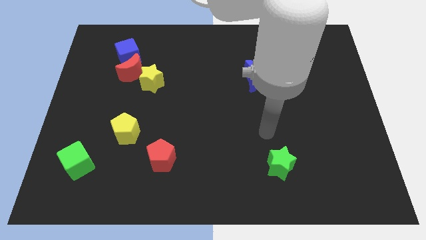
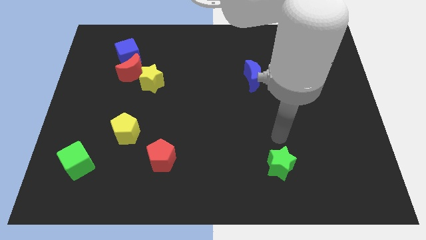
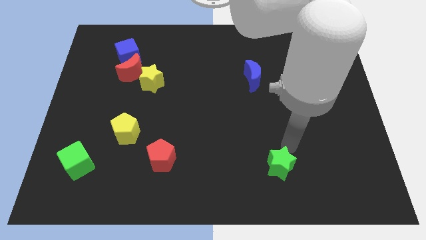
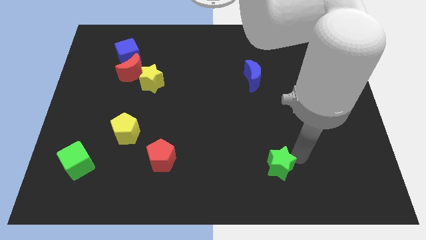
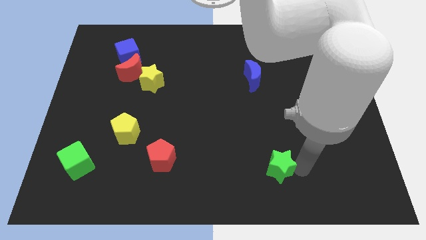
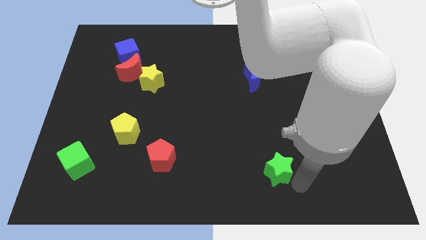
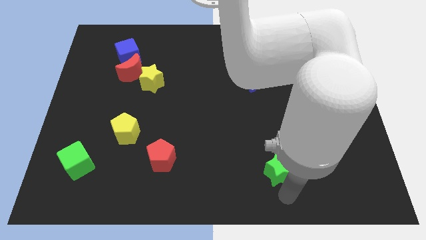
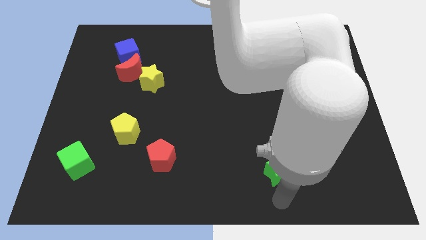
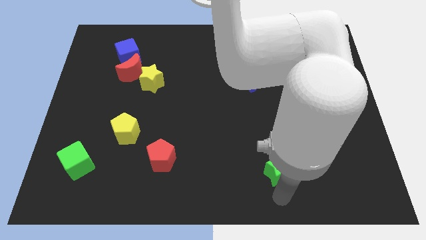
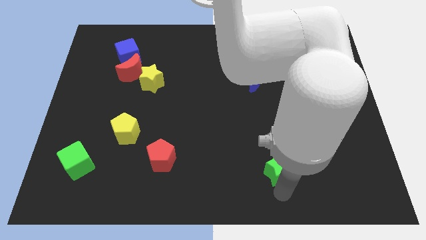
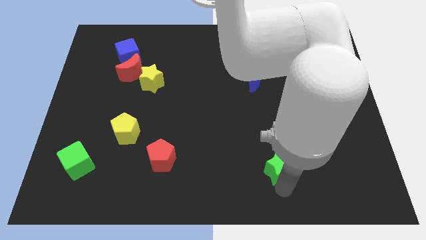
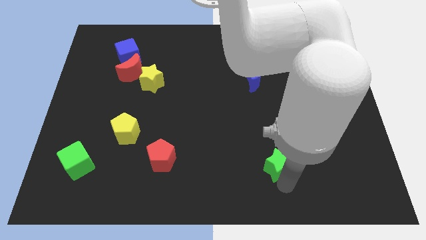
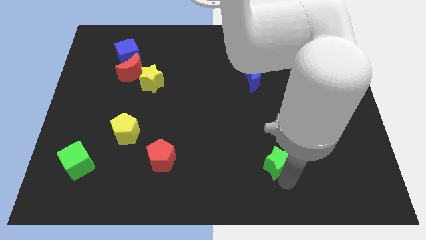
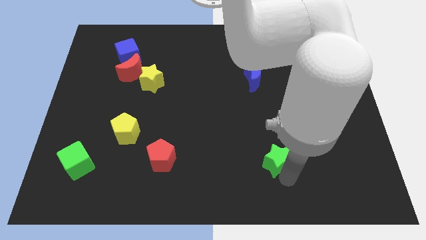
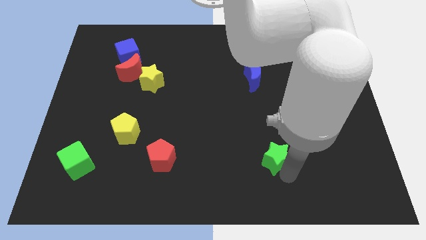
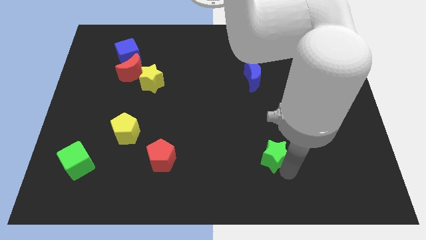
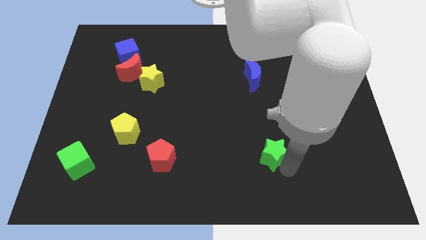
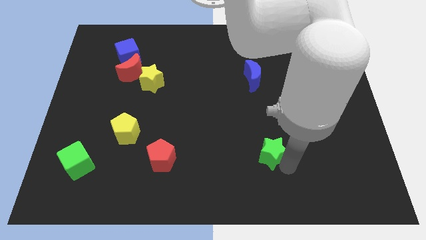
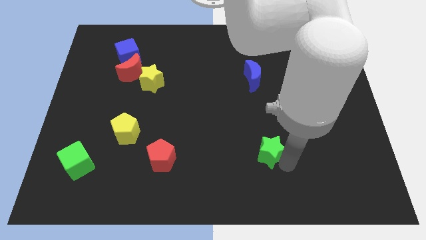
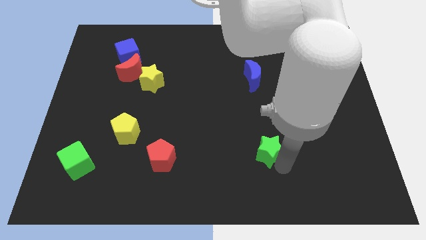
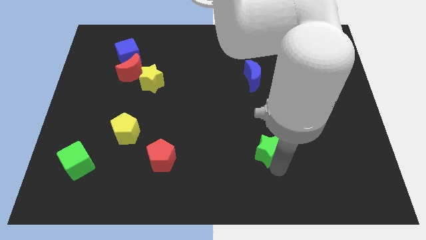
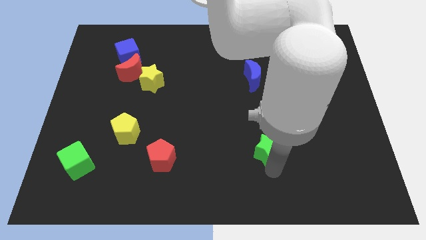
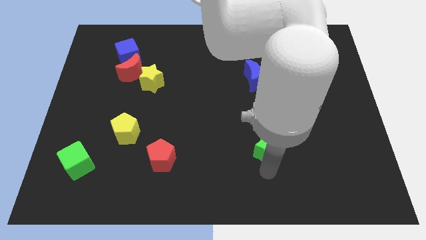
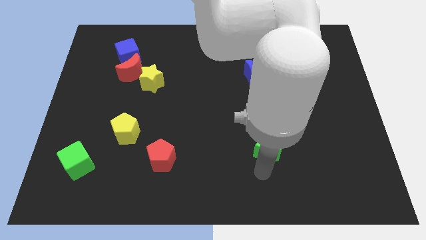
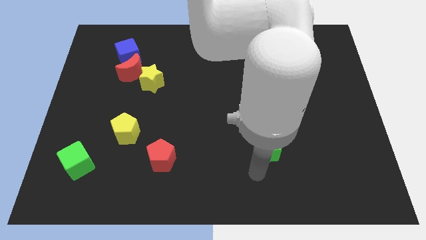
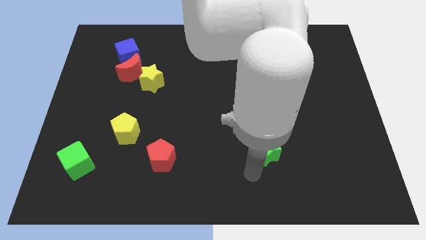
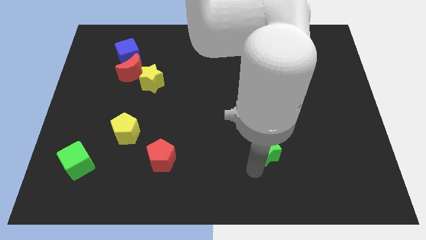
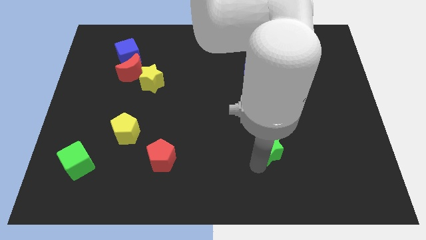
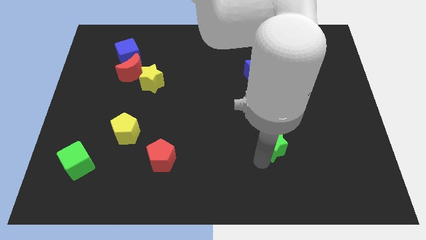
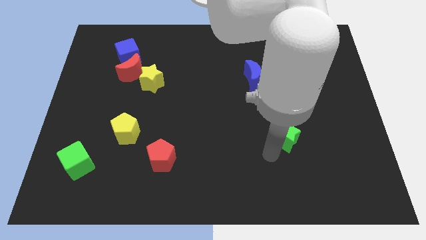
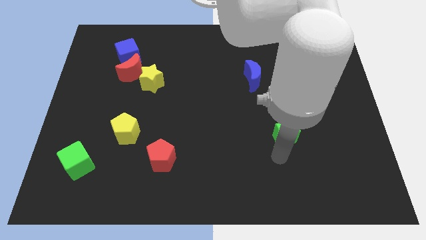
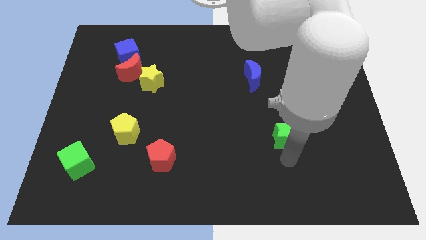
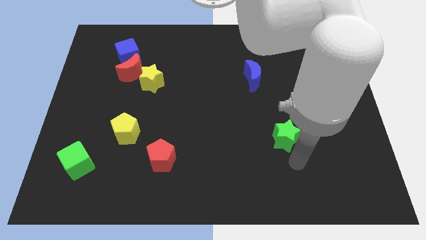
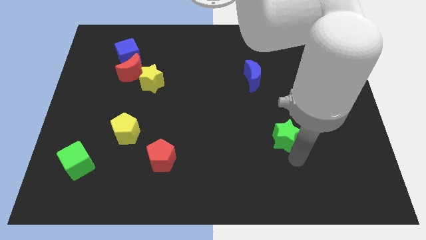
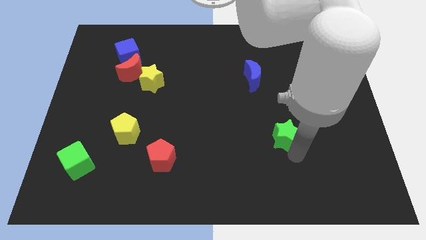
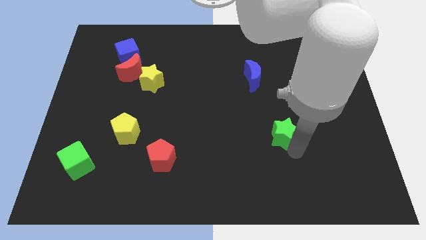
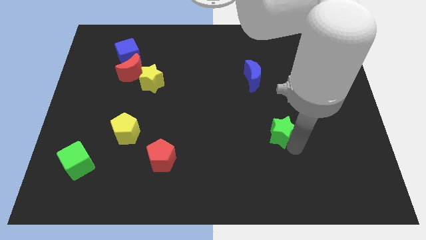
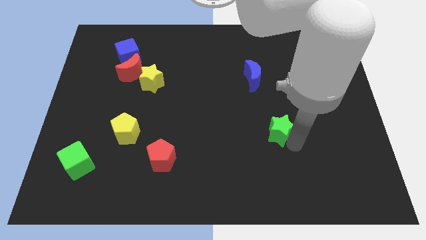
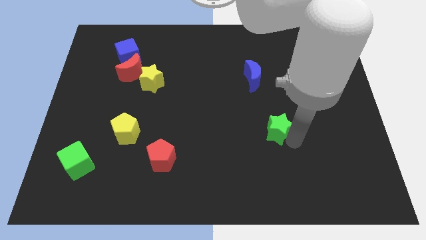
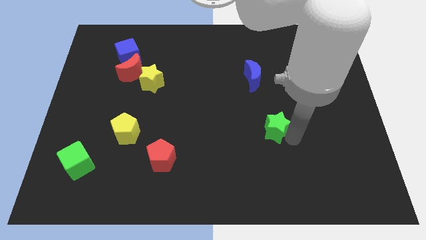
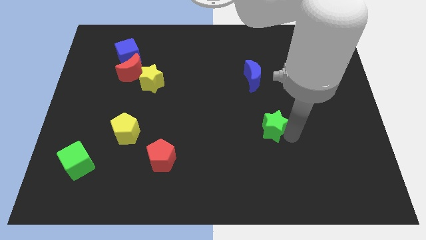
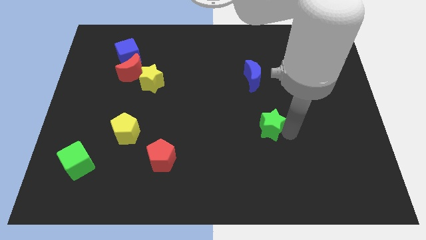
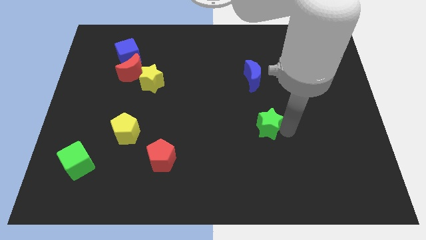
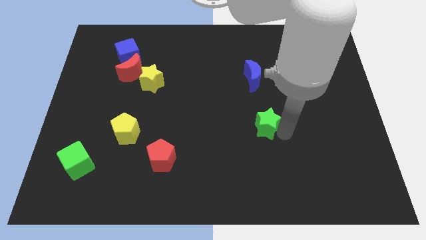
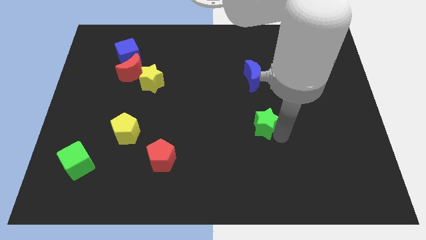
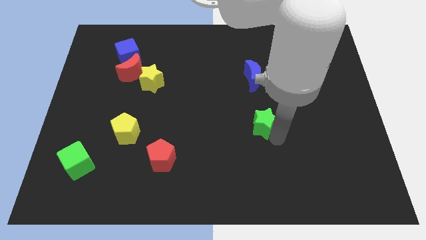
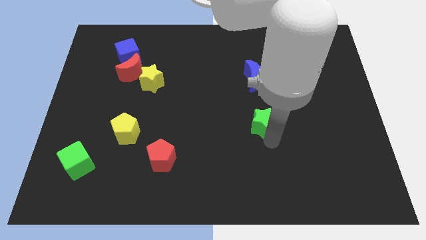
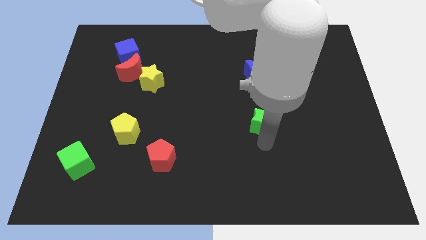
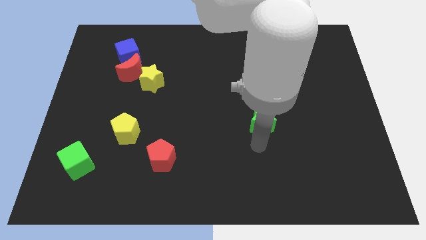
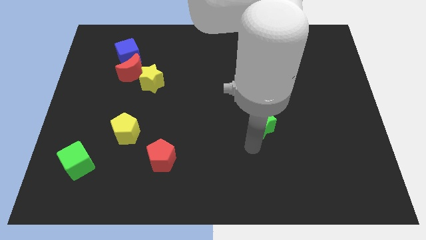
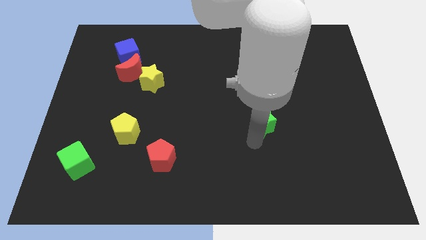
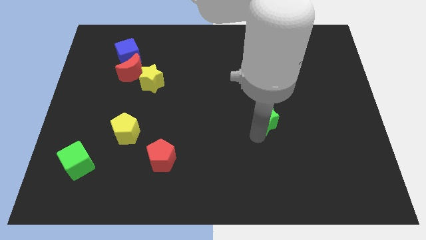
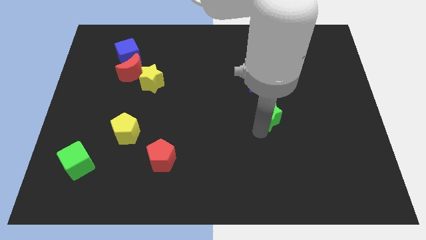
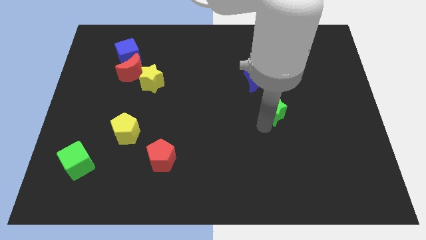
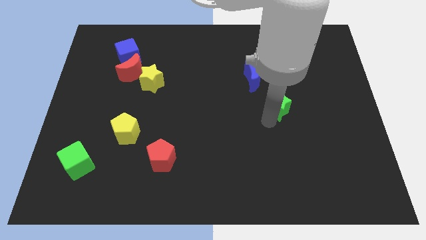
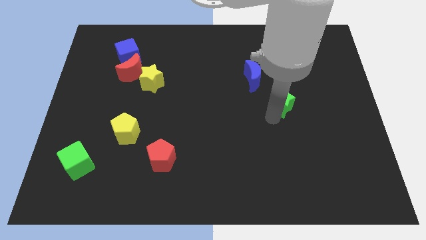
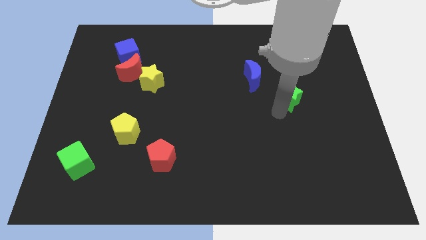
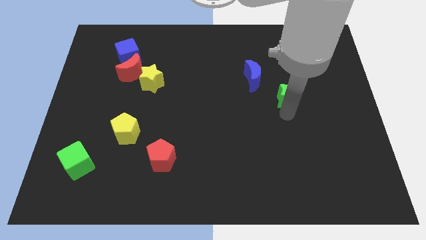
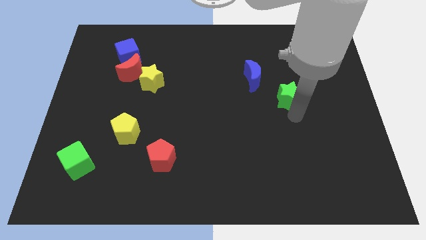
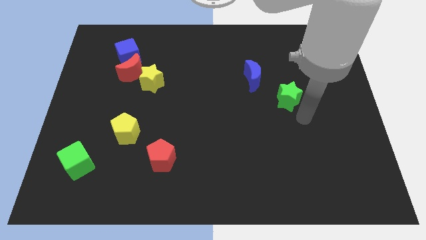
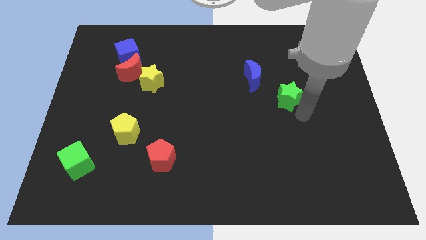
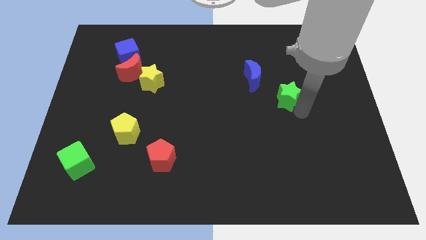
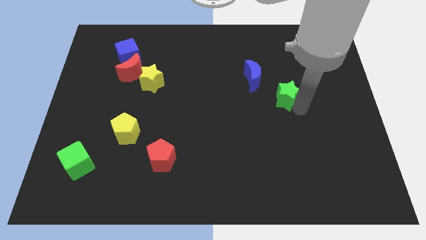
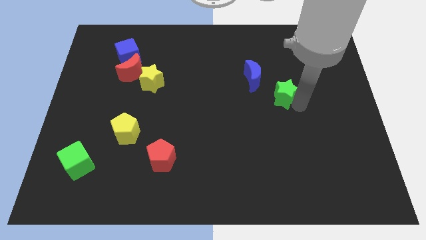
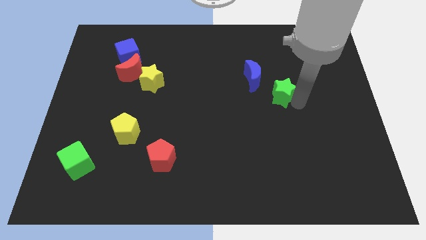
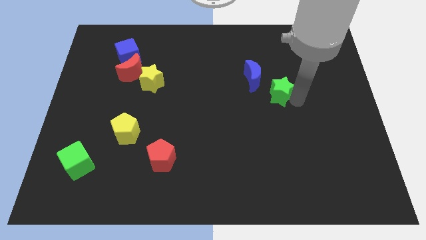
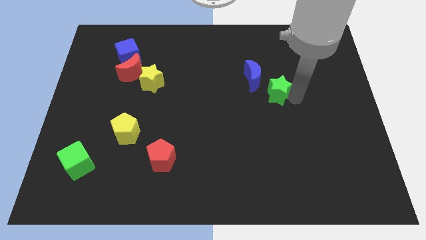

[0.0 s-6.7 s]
slide the green star upwards

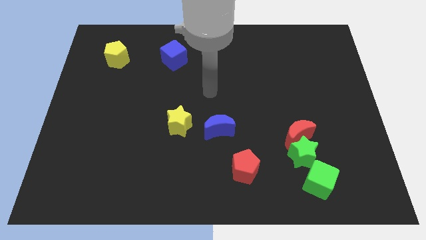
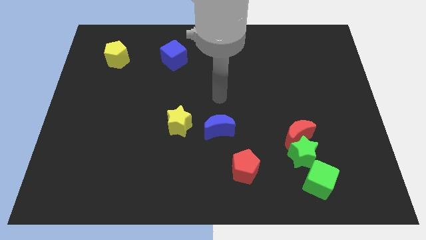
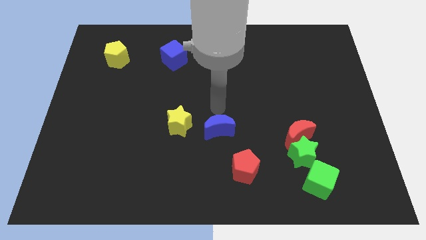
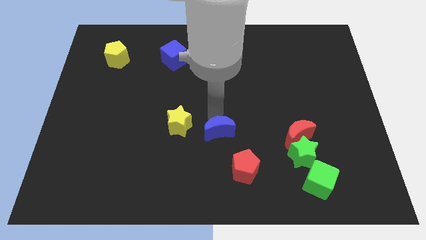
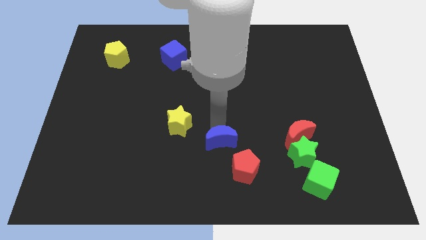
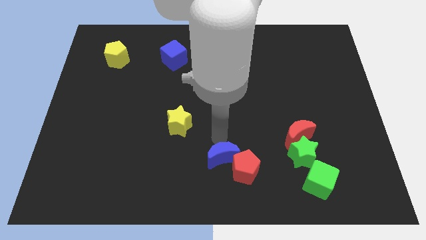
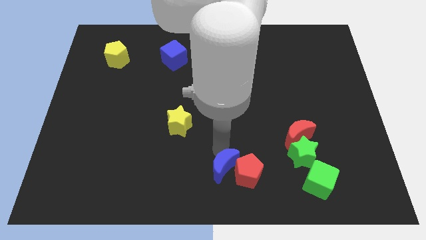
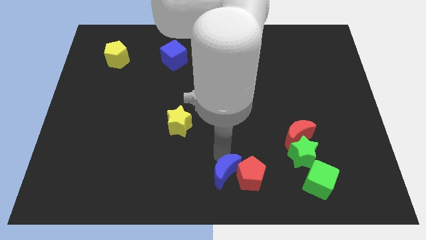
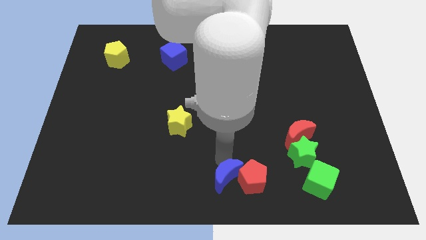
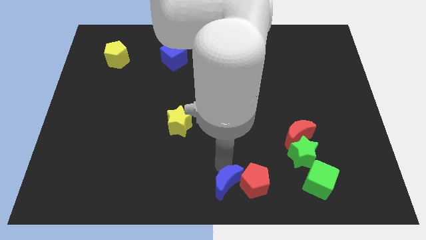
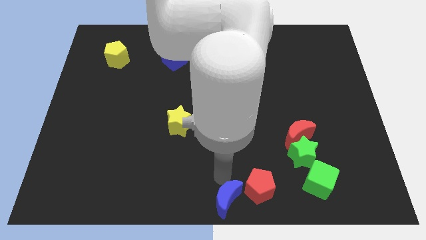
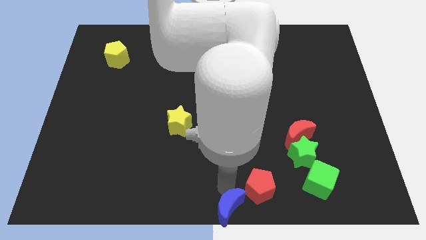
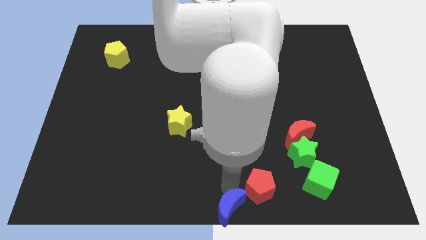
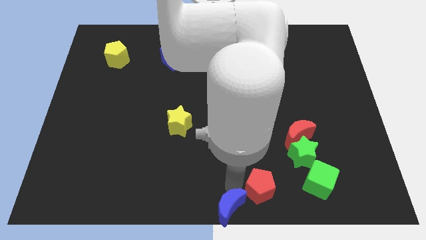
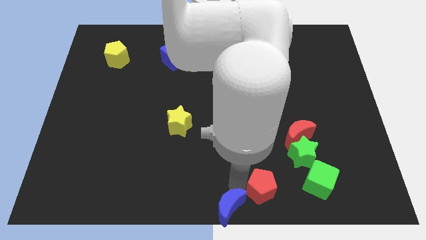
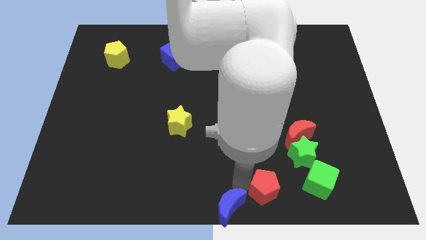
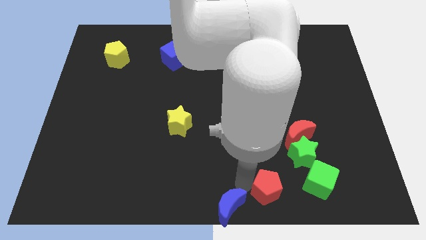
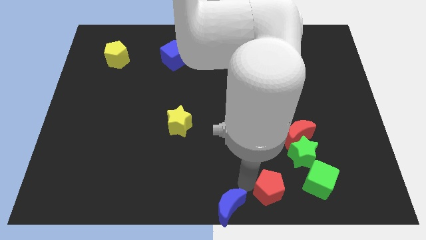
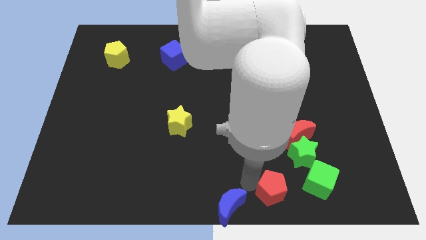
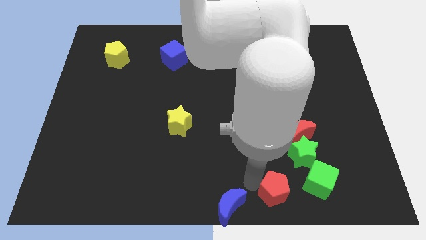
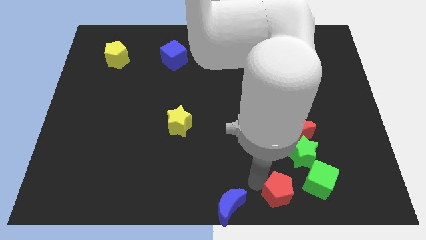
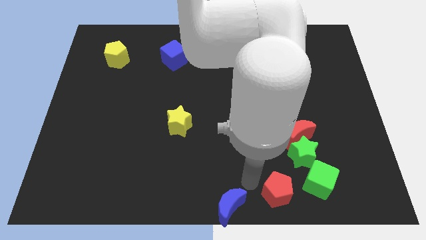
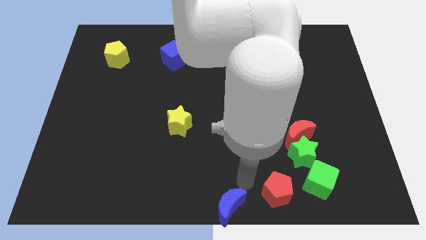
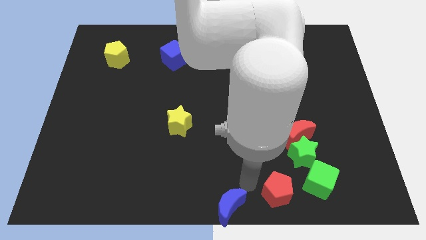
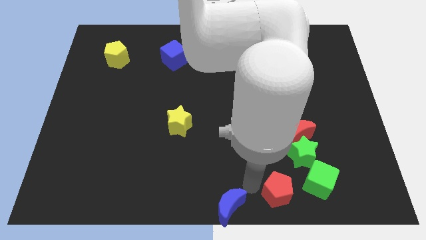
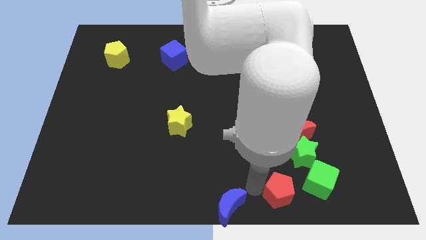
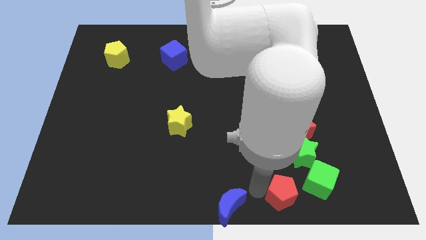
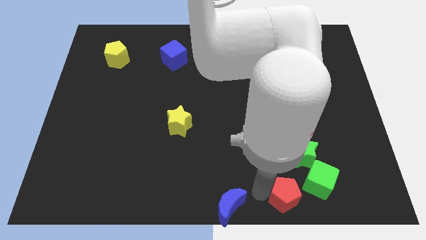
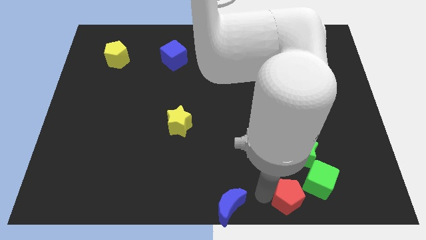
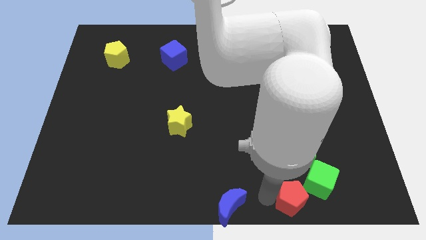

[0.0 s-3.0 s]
slide the red pentagon a little to the right
